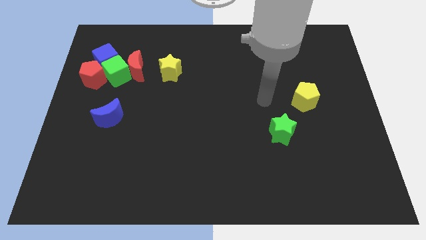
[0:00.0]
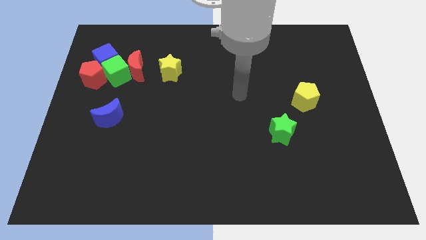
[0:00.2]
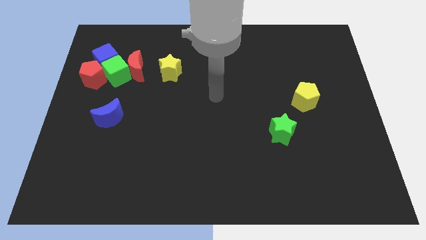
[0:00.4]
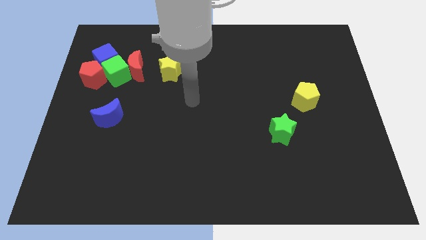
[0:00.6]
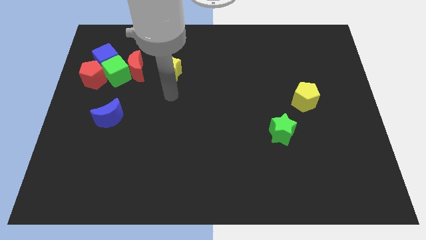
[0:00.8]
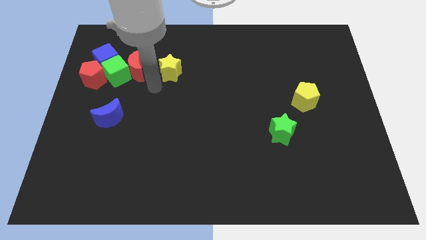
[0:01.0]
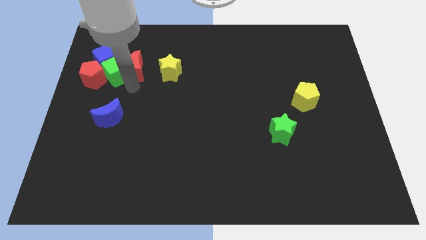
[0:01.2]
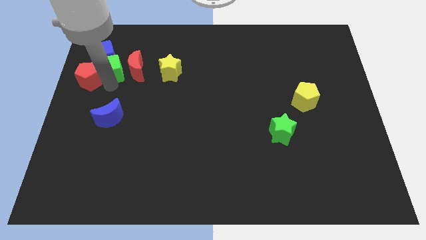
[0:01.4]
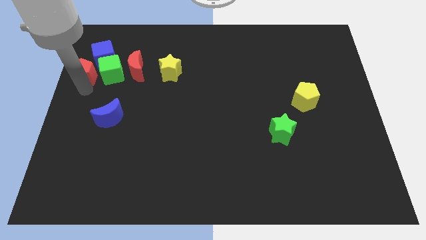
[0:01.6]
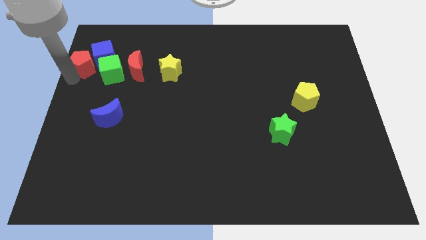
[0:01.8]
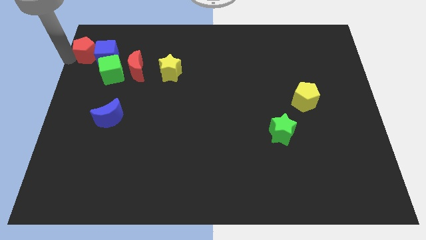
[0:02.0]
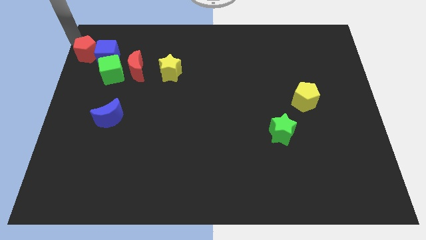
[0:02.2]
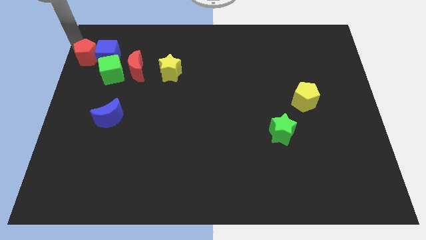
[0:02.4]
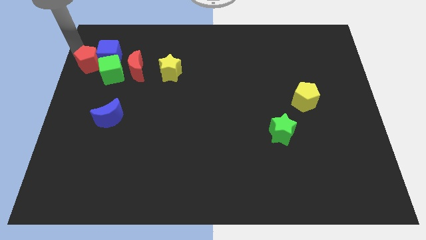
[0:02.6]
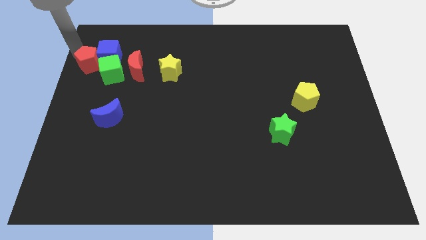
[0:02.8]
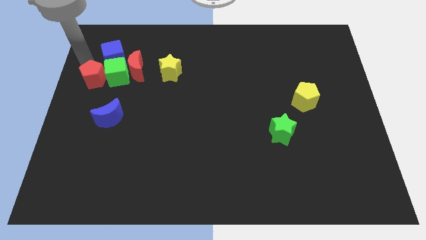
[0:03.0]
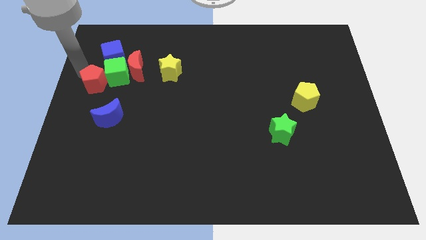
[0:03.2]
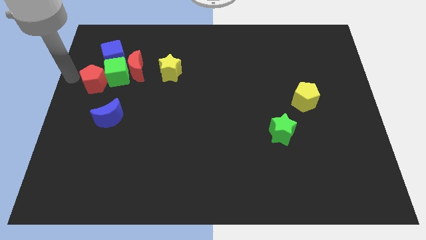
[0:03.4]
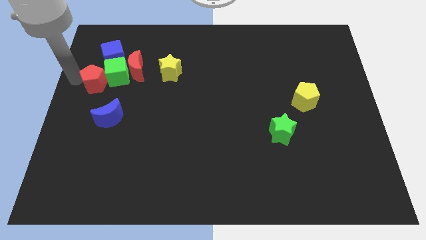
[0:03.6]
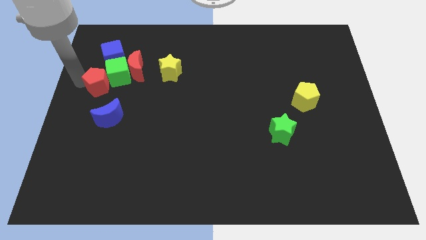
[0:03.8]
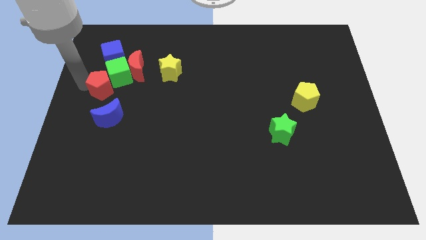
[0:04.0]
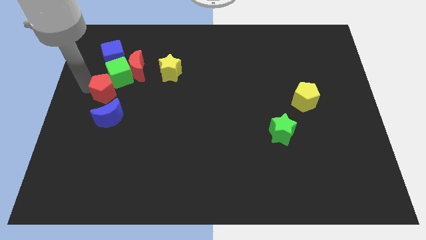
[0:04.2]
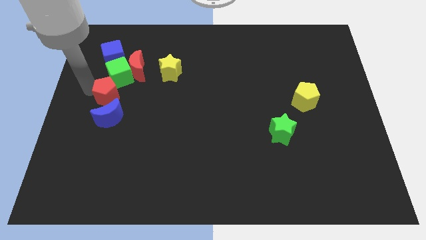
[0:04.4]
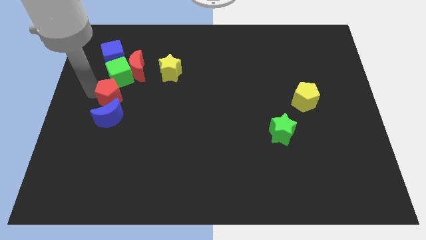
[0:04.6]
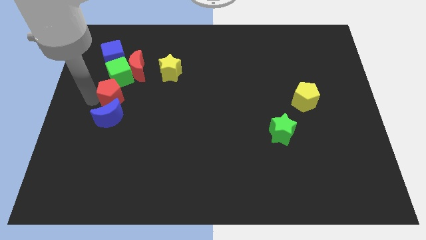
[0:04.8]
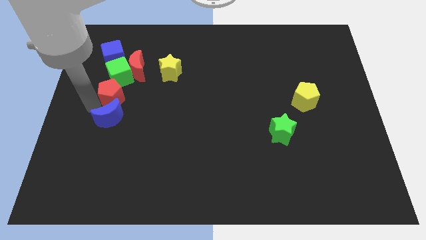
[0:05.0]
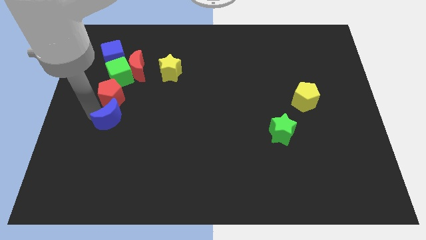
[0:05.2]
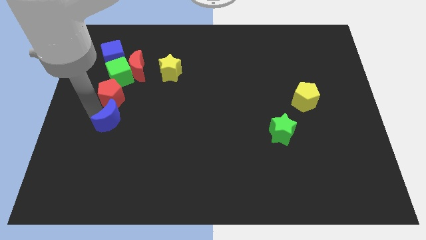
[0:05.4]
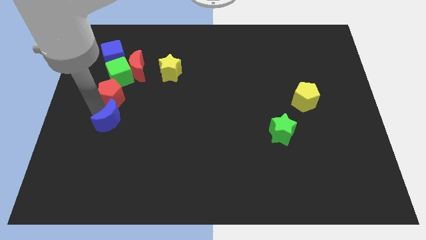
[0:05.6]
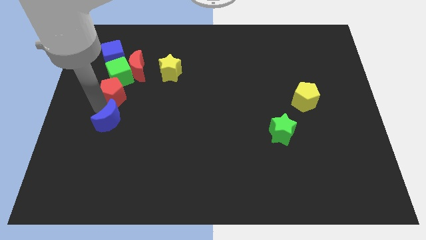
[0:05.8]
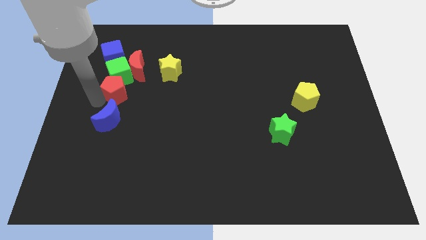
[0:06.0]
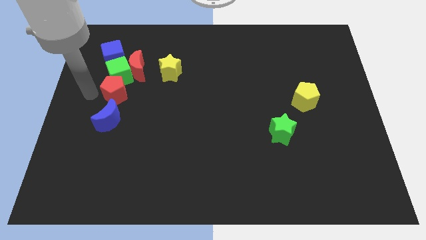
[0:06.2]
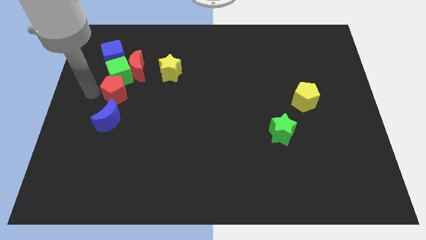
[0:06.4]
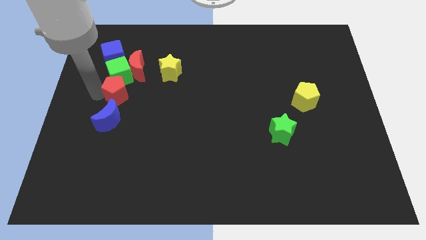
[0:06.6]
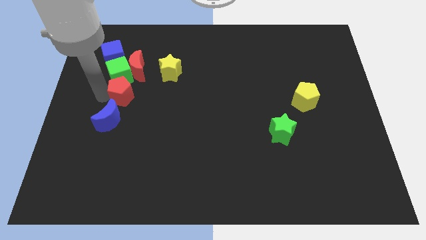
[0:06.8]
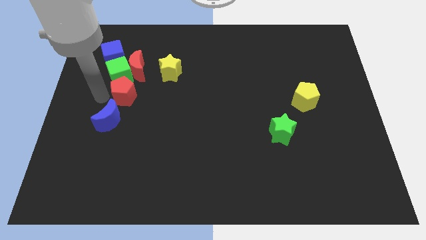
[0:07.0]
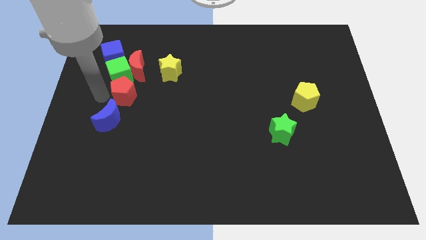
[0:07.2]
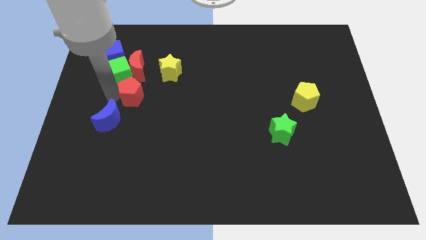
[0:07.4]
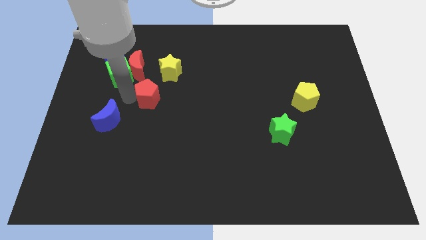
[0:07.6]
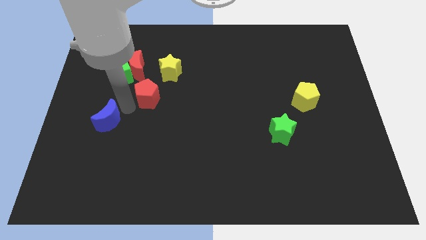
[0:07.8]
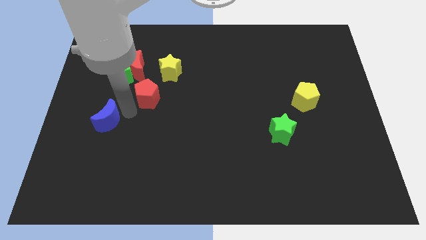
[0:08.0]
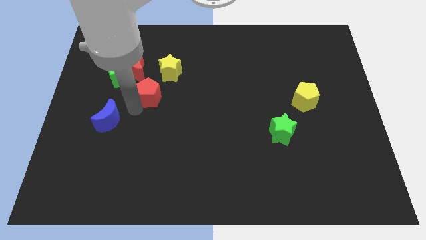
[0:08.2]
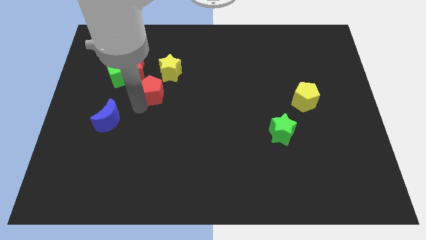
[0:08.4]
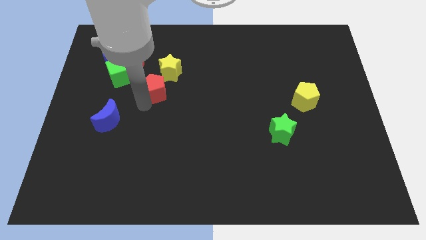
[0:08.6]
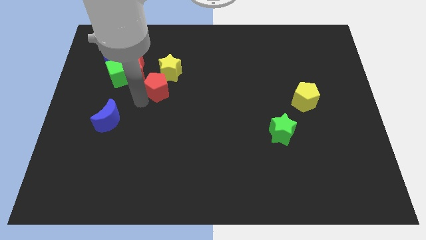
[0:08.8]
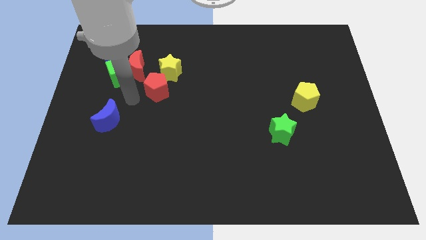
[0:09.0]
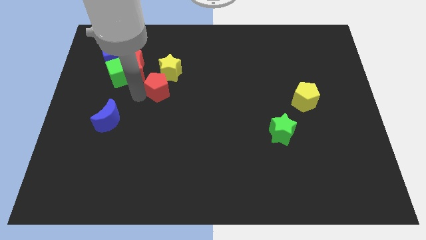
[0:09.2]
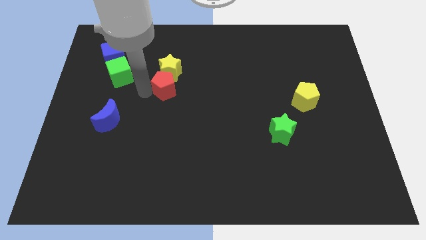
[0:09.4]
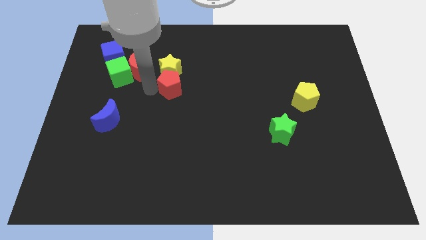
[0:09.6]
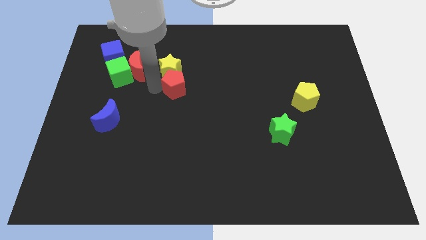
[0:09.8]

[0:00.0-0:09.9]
move the red pentagon right

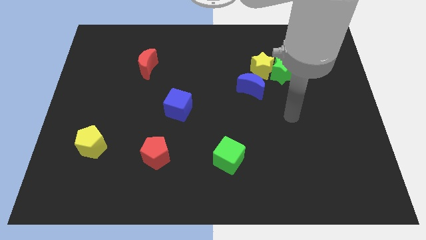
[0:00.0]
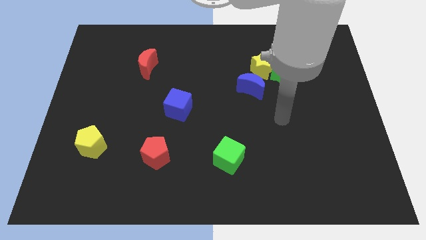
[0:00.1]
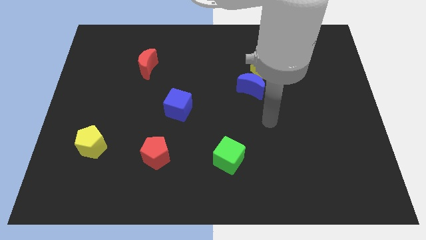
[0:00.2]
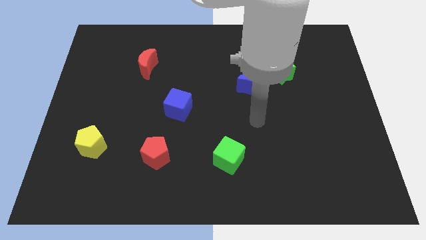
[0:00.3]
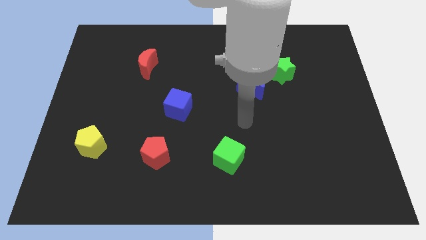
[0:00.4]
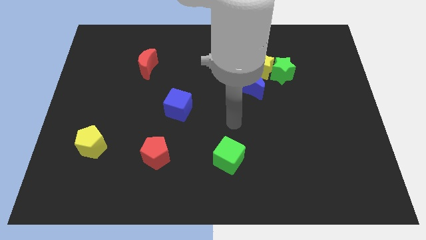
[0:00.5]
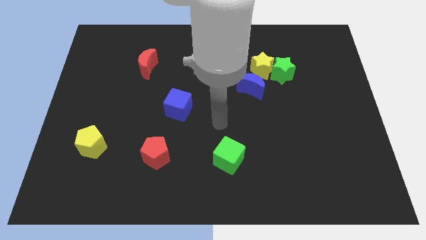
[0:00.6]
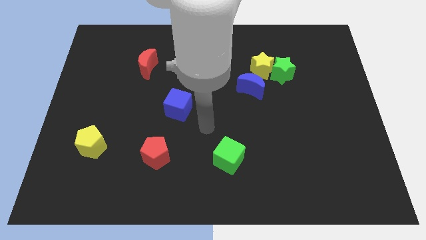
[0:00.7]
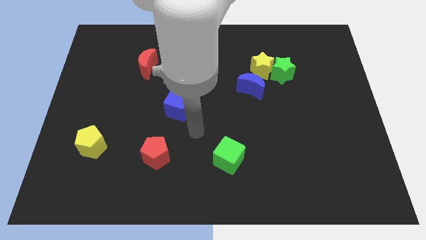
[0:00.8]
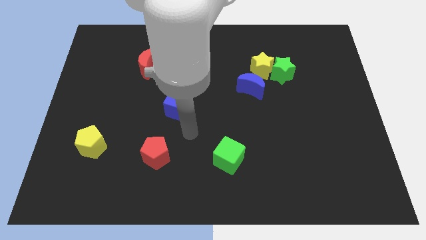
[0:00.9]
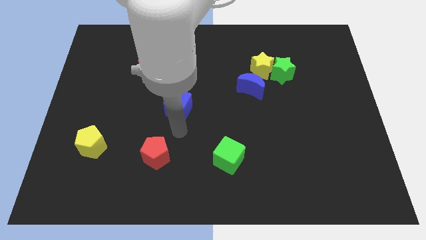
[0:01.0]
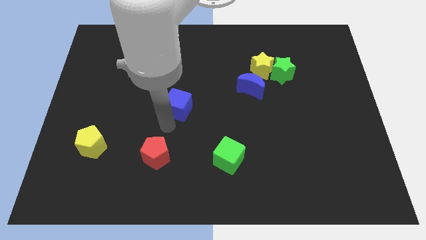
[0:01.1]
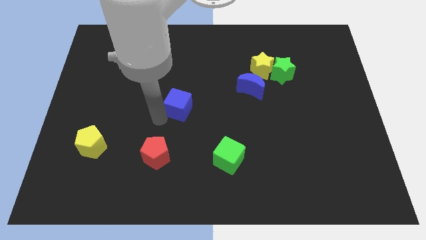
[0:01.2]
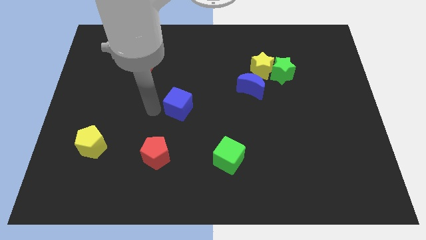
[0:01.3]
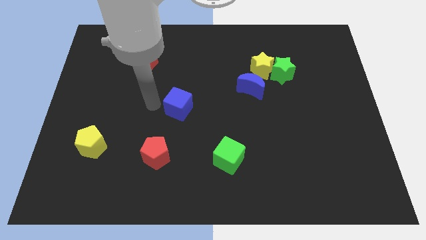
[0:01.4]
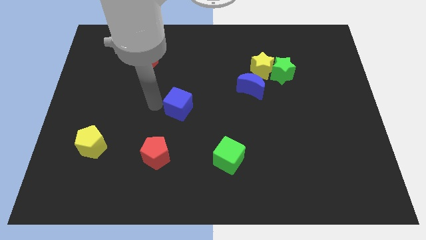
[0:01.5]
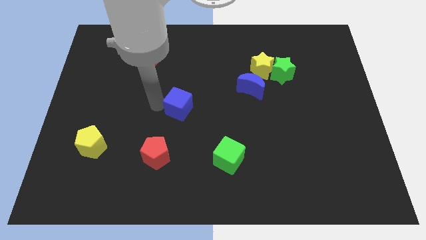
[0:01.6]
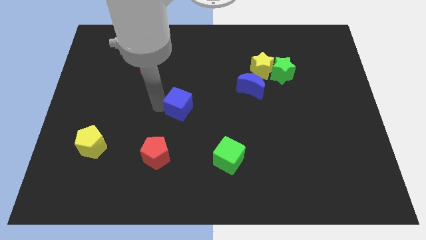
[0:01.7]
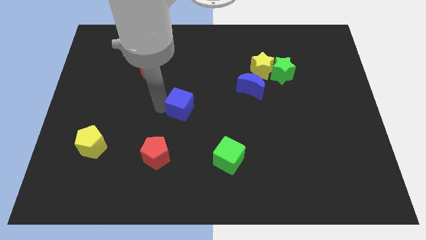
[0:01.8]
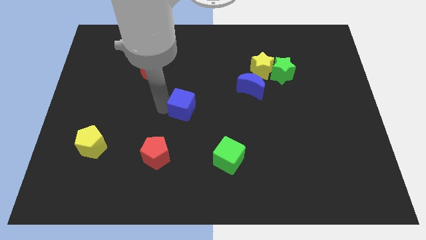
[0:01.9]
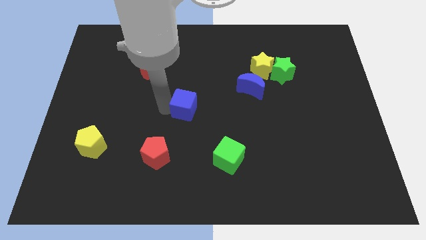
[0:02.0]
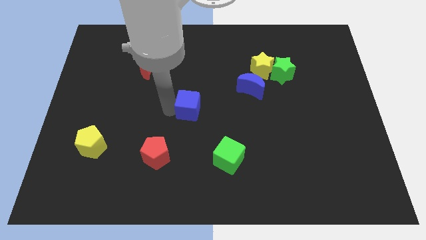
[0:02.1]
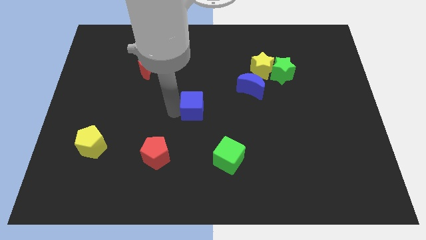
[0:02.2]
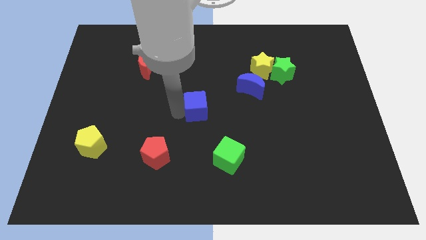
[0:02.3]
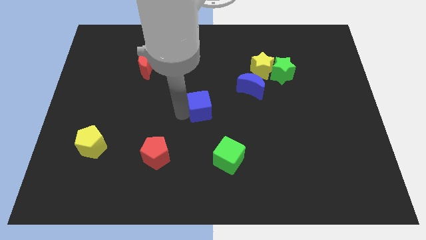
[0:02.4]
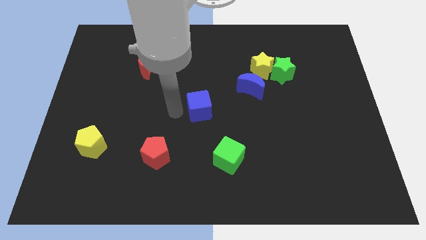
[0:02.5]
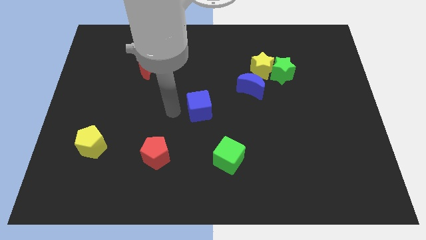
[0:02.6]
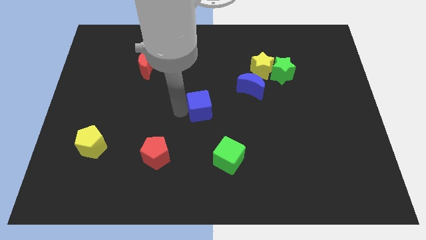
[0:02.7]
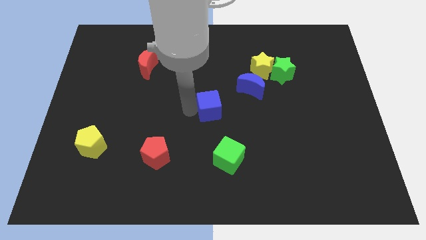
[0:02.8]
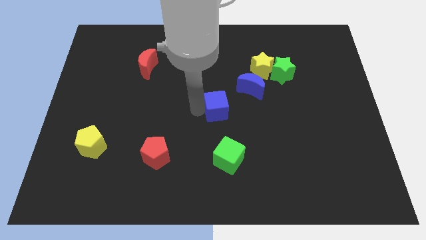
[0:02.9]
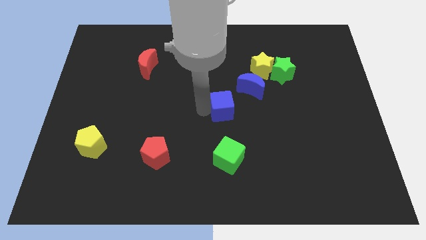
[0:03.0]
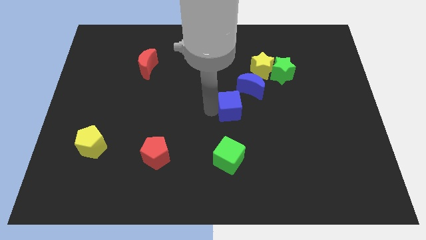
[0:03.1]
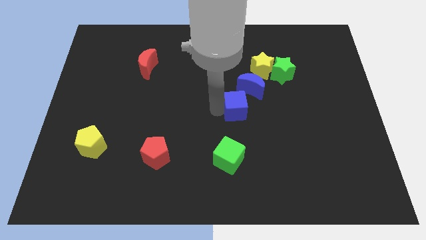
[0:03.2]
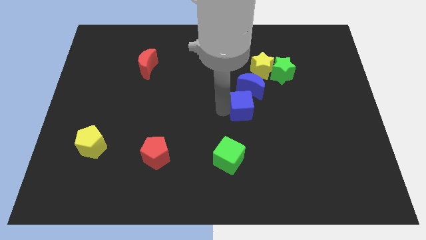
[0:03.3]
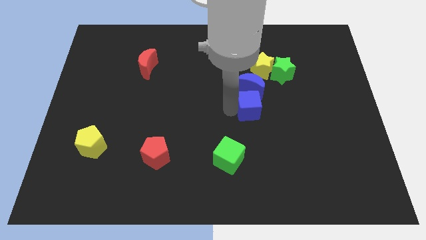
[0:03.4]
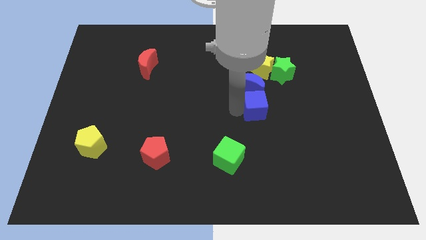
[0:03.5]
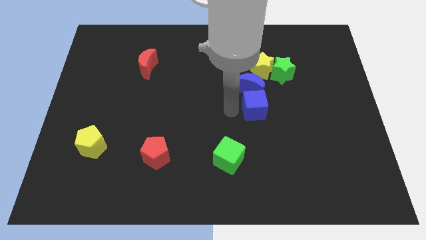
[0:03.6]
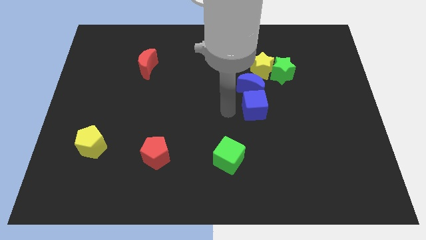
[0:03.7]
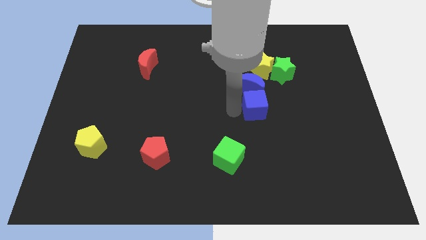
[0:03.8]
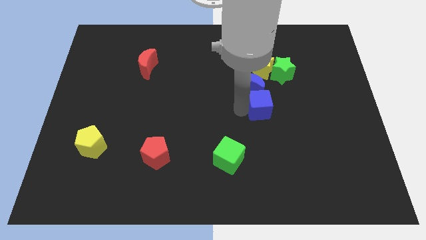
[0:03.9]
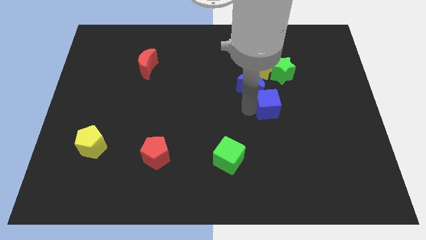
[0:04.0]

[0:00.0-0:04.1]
move the blue cube to the right
